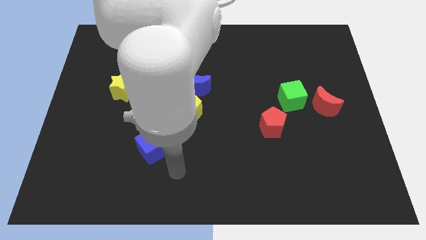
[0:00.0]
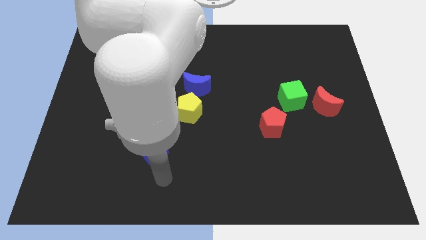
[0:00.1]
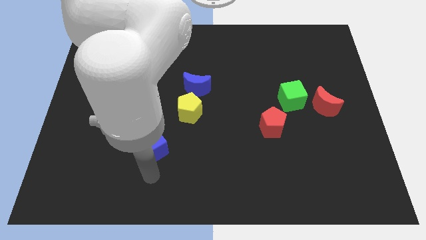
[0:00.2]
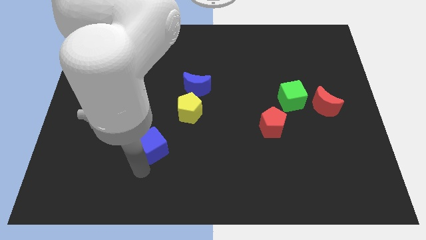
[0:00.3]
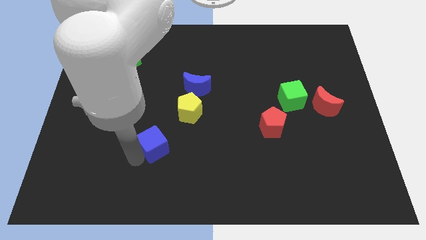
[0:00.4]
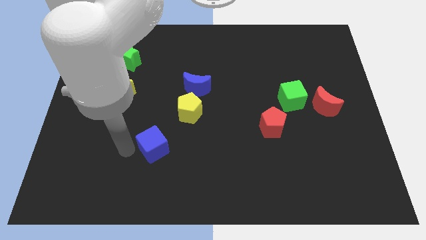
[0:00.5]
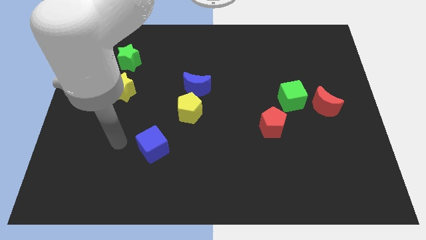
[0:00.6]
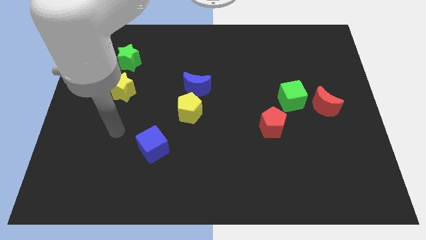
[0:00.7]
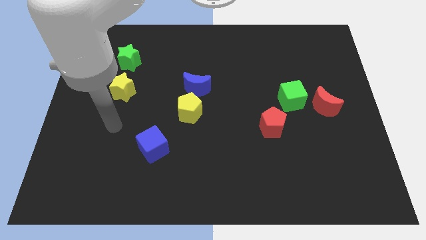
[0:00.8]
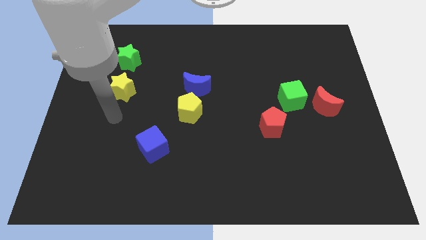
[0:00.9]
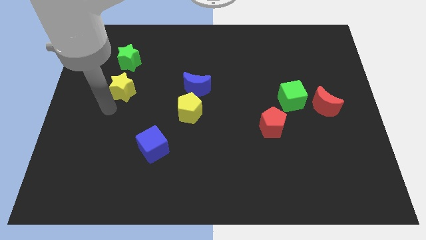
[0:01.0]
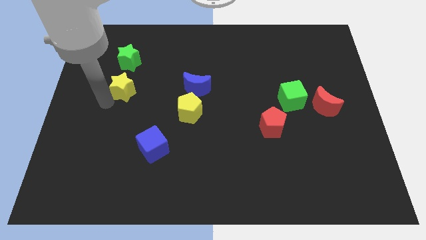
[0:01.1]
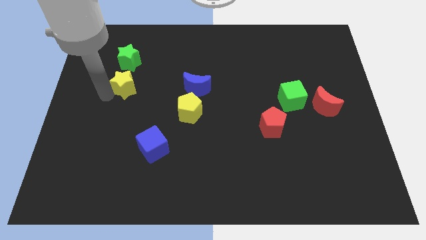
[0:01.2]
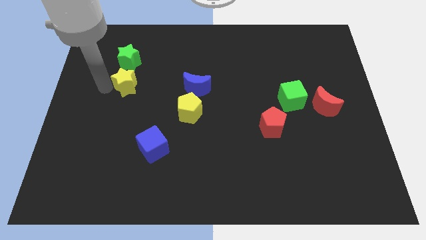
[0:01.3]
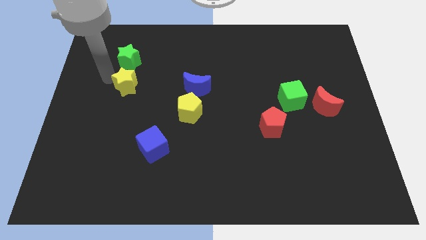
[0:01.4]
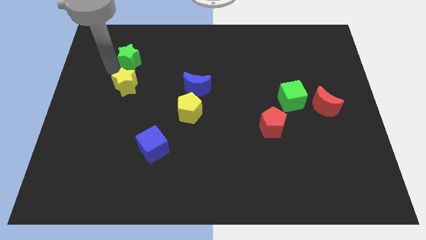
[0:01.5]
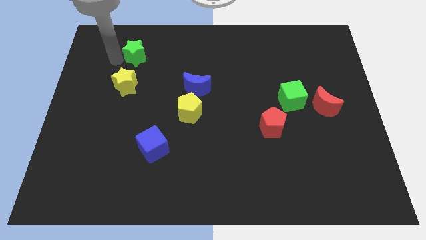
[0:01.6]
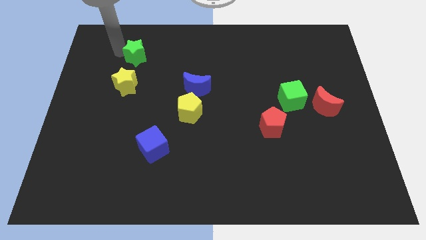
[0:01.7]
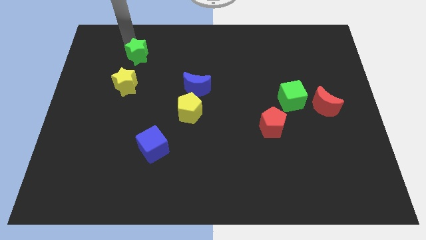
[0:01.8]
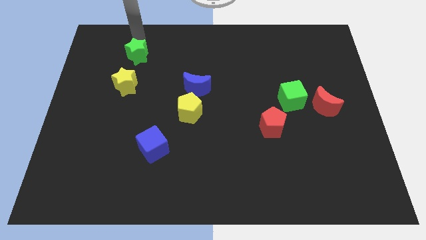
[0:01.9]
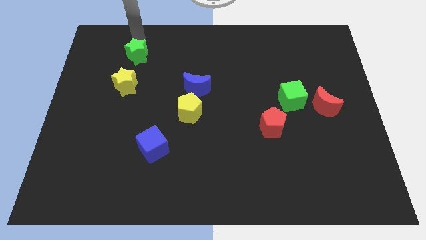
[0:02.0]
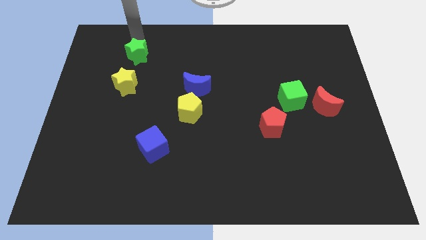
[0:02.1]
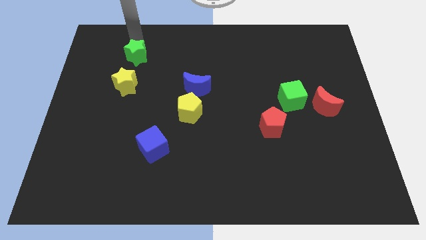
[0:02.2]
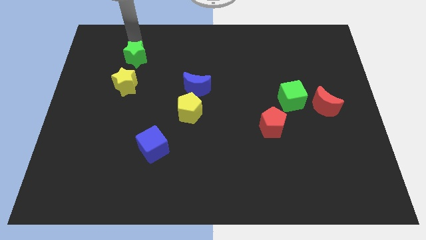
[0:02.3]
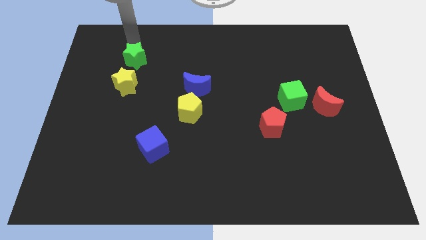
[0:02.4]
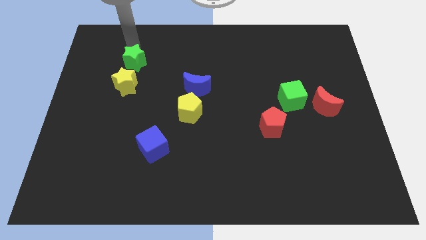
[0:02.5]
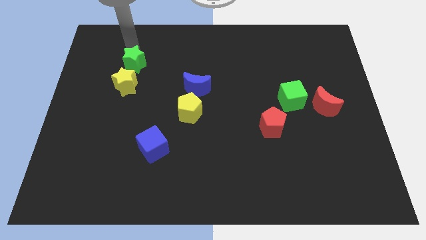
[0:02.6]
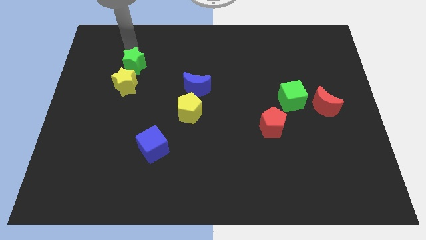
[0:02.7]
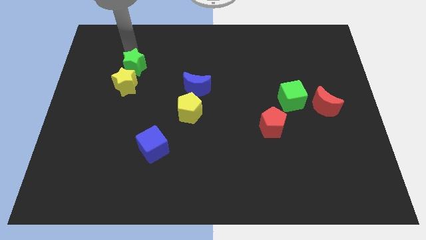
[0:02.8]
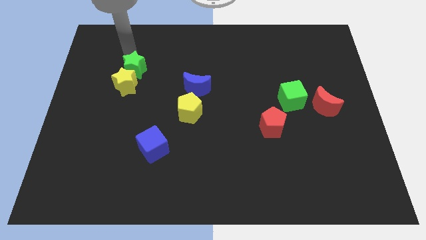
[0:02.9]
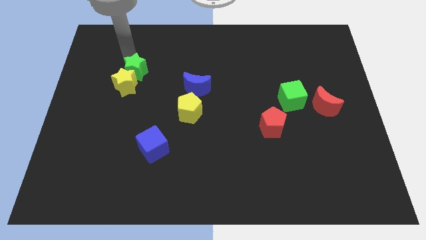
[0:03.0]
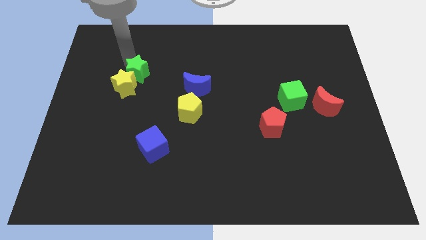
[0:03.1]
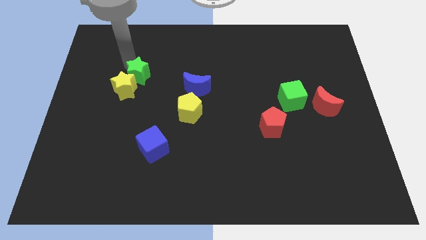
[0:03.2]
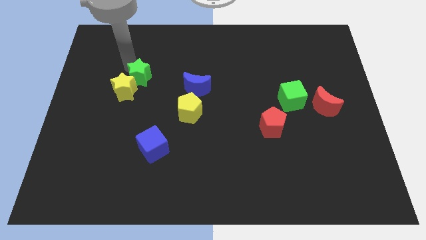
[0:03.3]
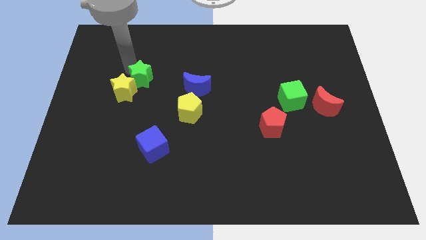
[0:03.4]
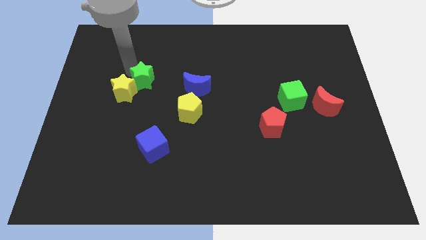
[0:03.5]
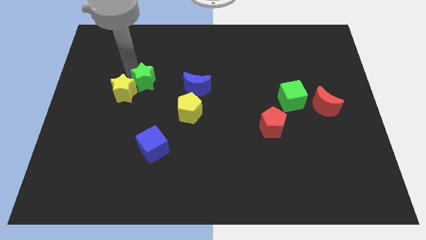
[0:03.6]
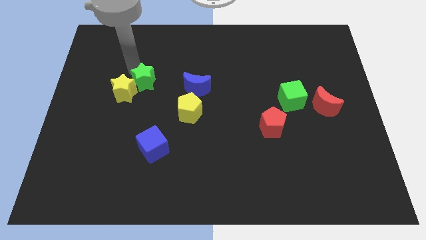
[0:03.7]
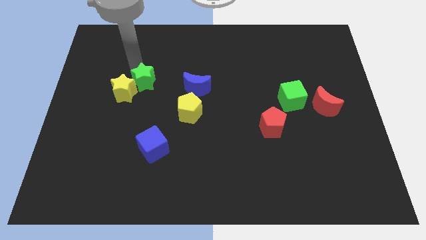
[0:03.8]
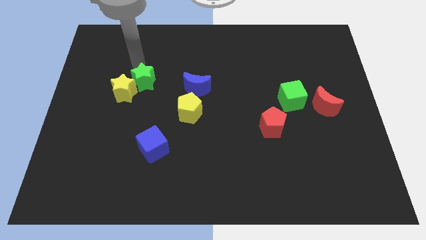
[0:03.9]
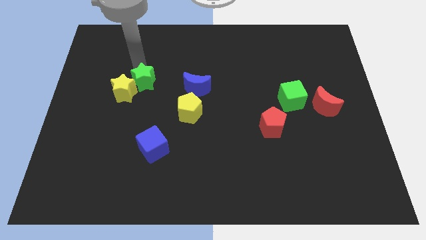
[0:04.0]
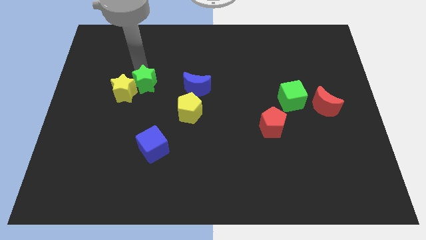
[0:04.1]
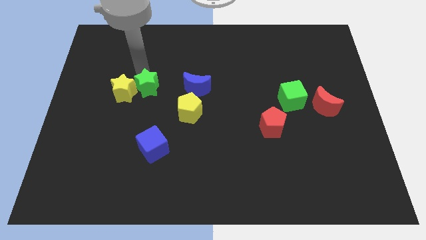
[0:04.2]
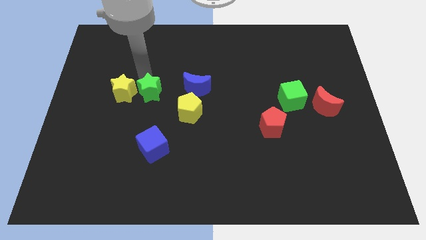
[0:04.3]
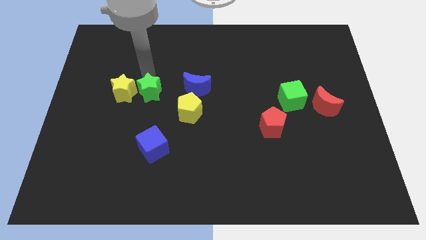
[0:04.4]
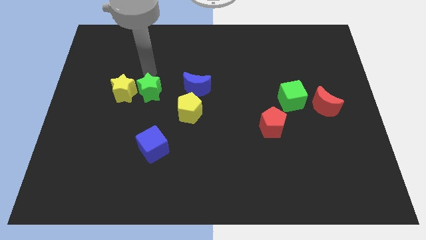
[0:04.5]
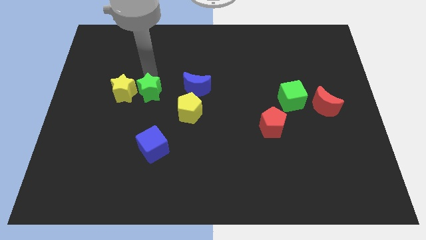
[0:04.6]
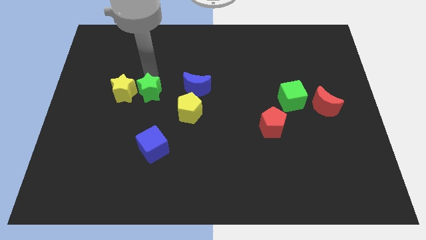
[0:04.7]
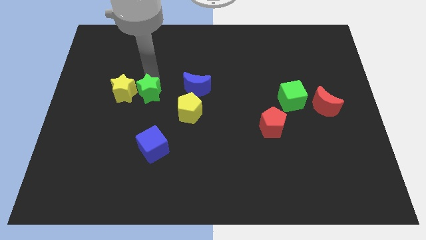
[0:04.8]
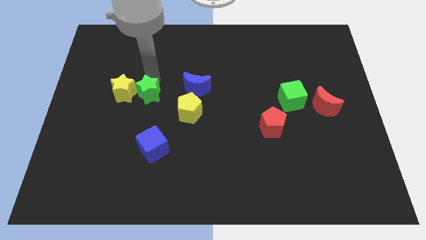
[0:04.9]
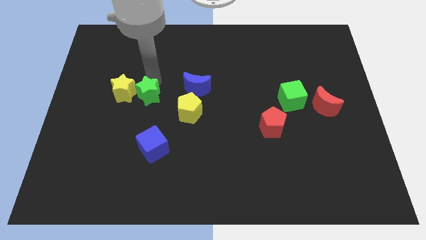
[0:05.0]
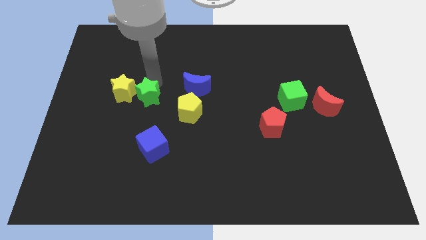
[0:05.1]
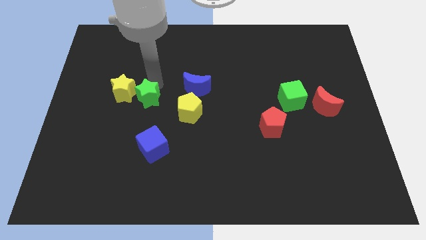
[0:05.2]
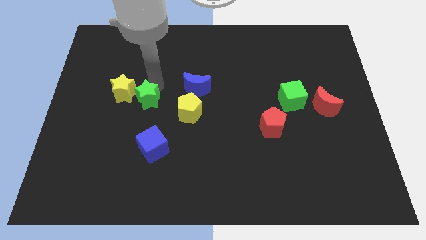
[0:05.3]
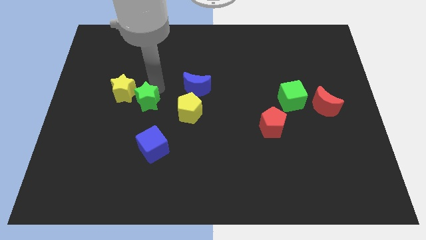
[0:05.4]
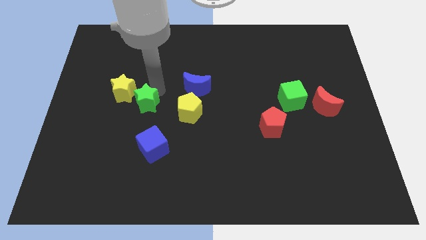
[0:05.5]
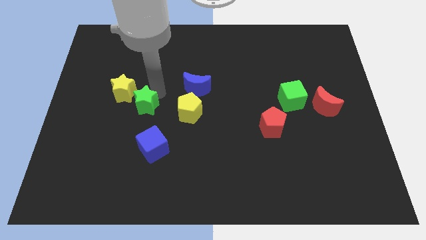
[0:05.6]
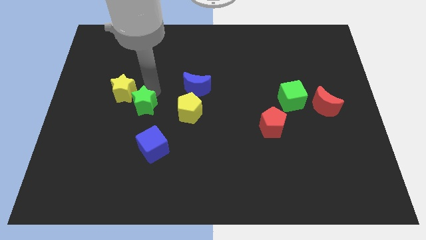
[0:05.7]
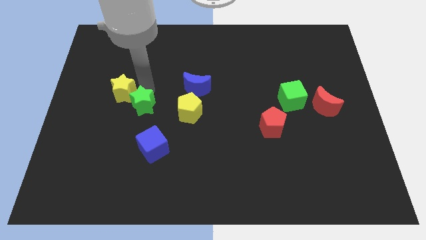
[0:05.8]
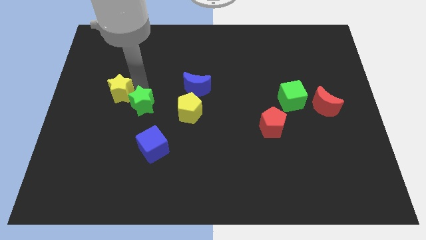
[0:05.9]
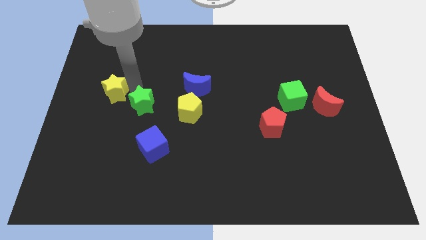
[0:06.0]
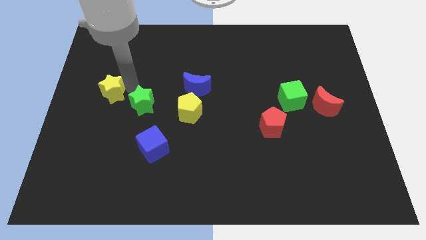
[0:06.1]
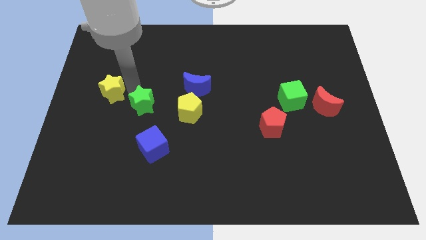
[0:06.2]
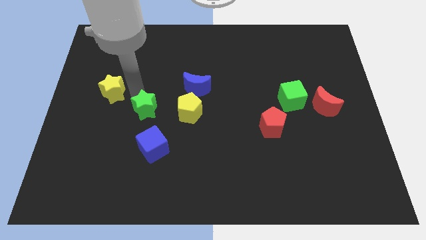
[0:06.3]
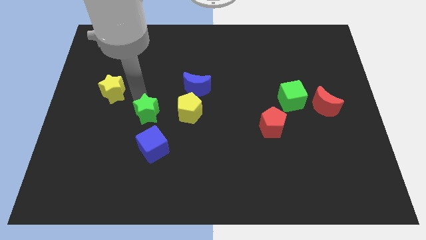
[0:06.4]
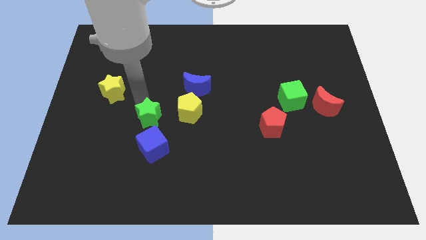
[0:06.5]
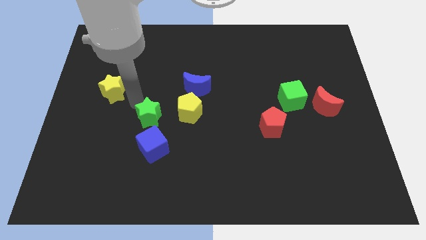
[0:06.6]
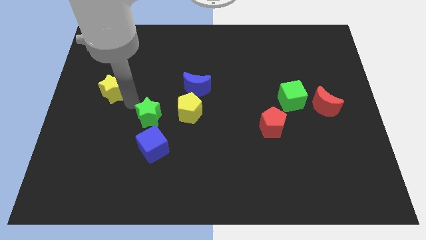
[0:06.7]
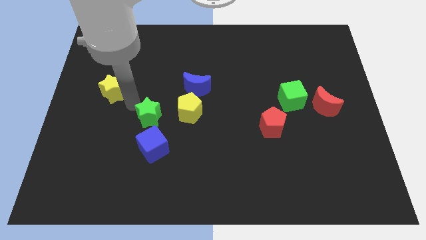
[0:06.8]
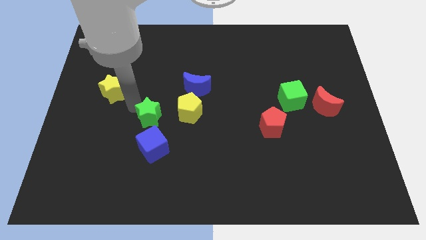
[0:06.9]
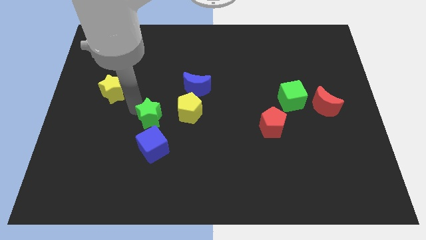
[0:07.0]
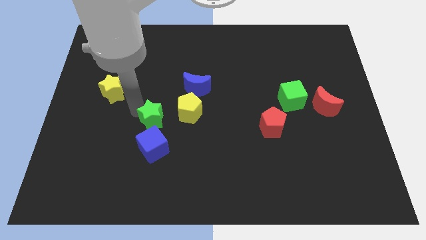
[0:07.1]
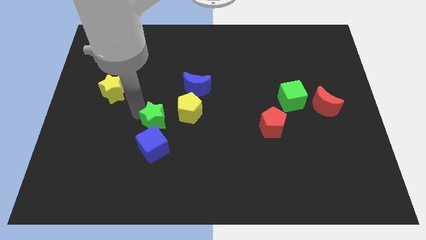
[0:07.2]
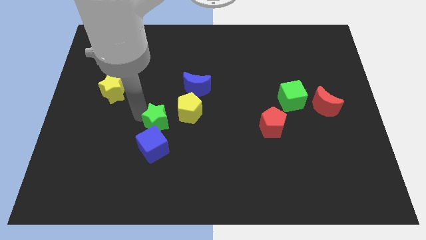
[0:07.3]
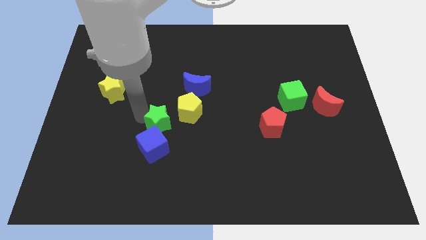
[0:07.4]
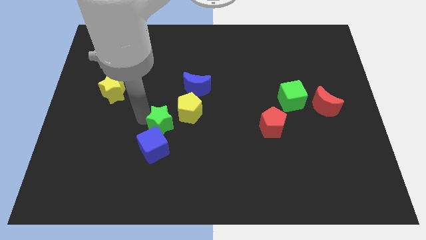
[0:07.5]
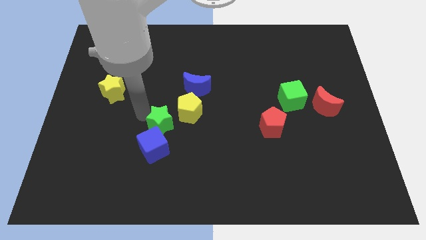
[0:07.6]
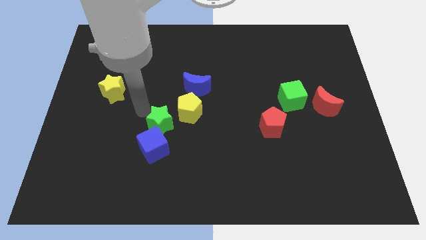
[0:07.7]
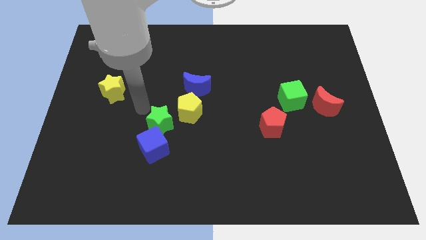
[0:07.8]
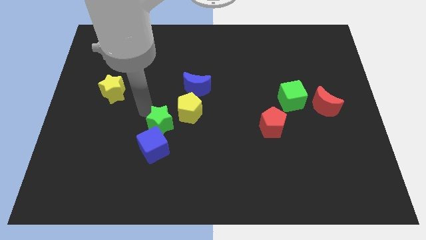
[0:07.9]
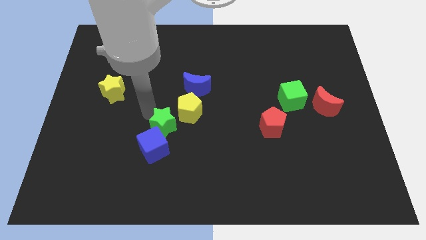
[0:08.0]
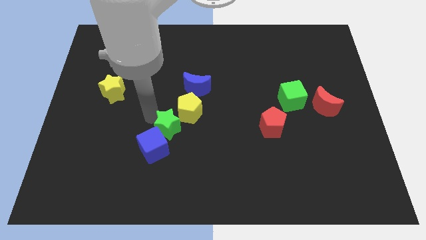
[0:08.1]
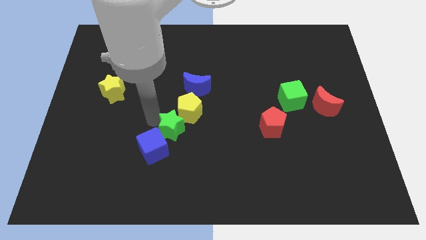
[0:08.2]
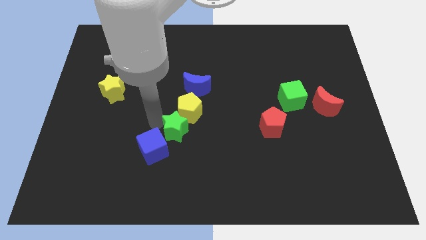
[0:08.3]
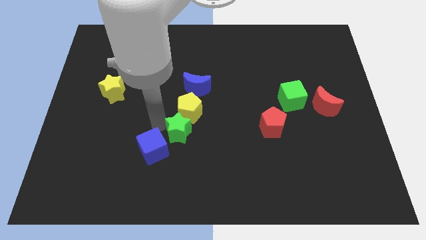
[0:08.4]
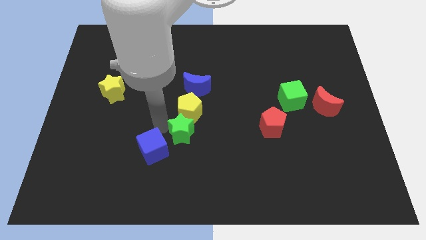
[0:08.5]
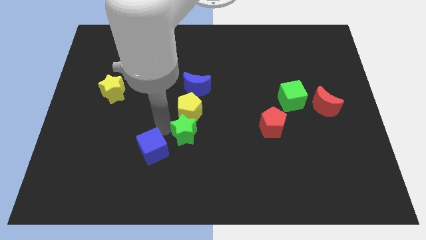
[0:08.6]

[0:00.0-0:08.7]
put the green star diagonally down and to the right of the yellow pentagon
